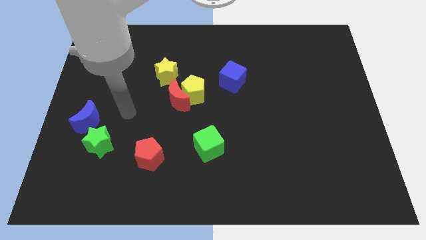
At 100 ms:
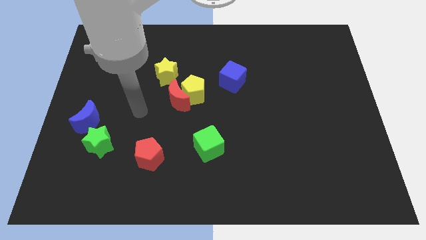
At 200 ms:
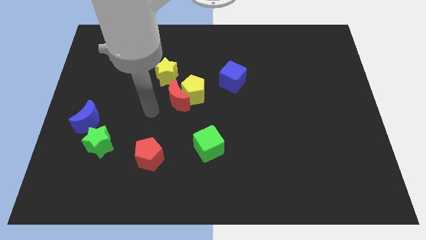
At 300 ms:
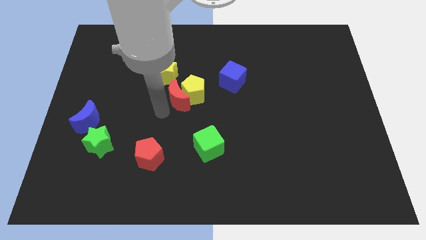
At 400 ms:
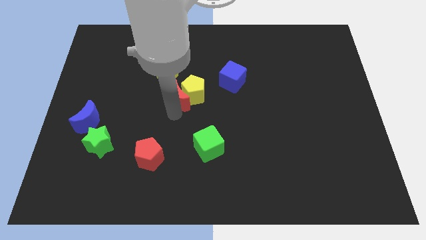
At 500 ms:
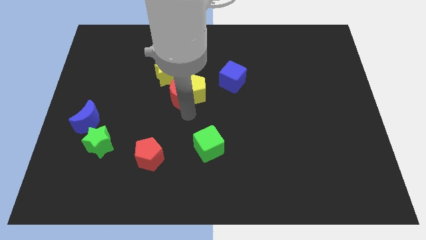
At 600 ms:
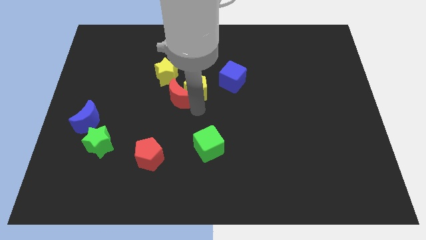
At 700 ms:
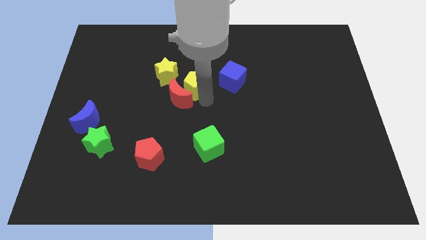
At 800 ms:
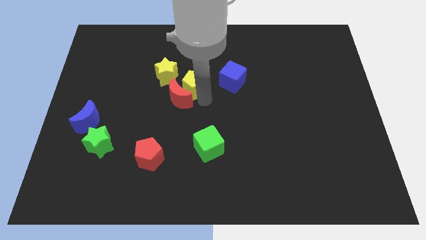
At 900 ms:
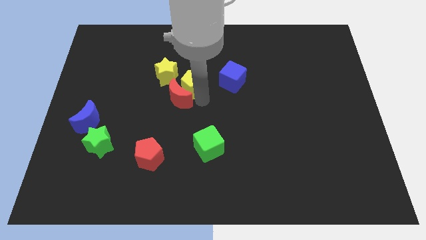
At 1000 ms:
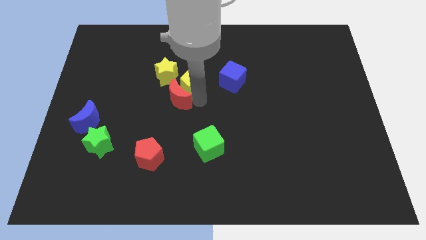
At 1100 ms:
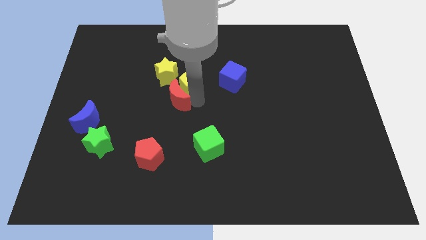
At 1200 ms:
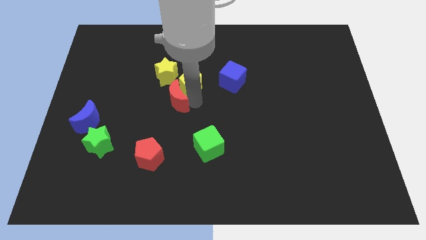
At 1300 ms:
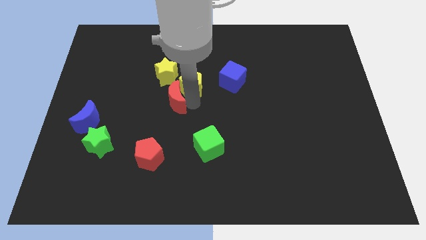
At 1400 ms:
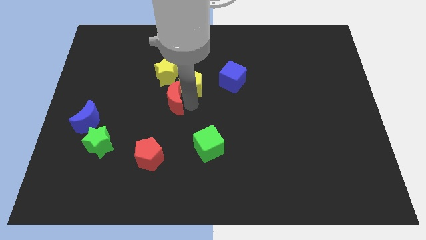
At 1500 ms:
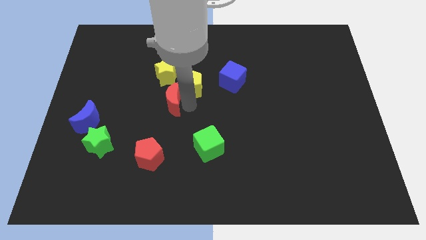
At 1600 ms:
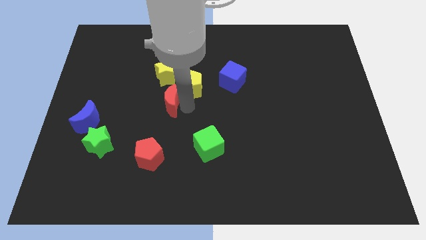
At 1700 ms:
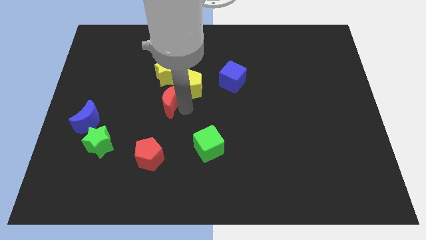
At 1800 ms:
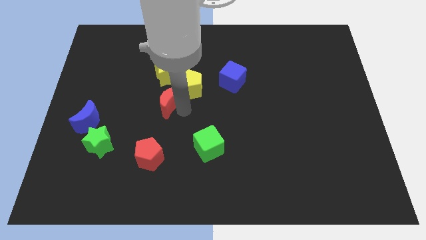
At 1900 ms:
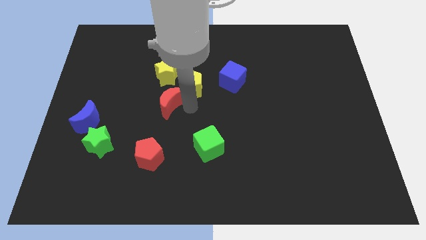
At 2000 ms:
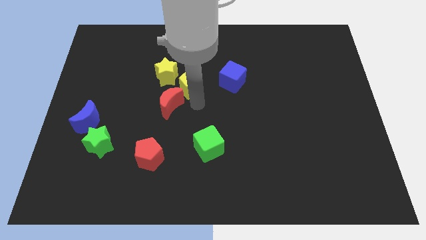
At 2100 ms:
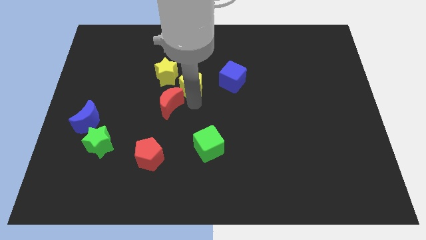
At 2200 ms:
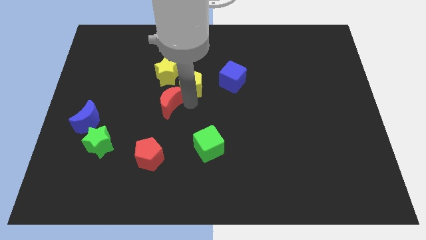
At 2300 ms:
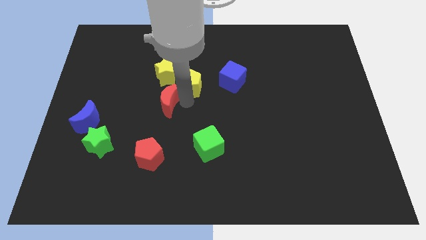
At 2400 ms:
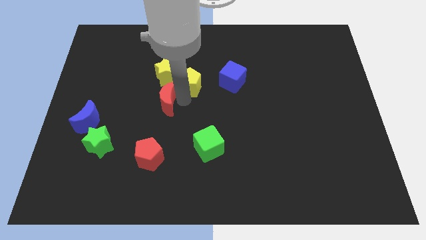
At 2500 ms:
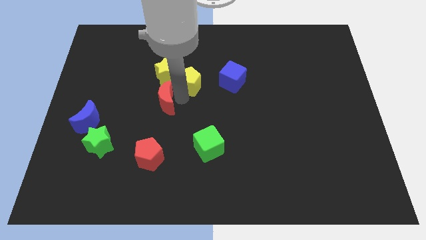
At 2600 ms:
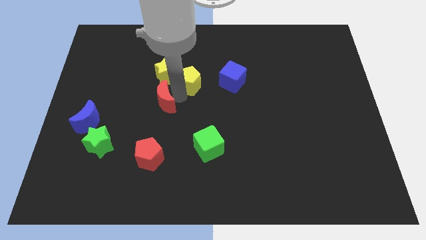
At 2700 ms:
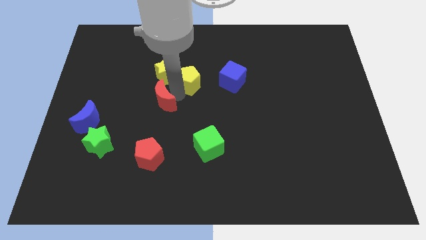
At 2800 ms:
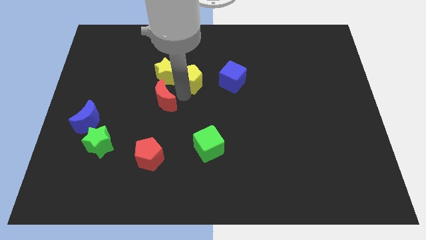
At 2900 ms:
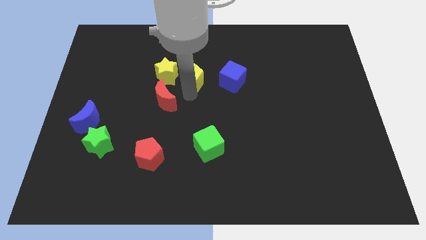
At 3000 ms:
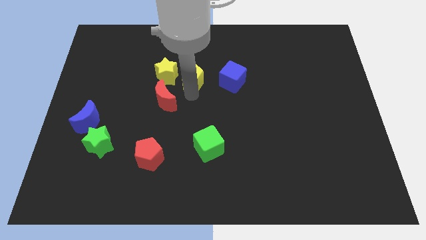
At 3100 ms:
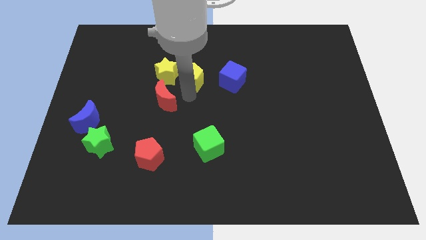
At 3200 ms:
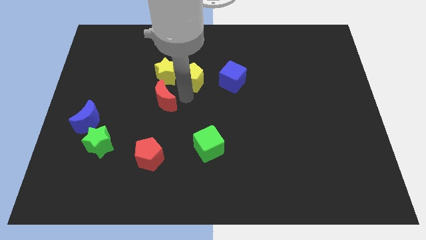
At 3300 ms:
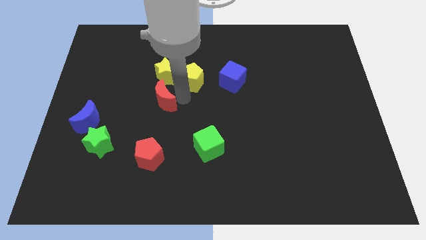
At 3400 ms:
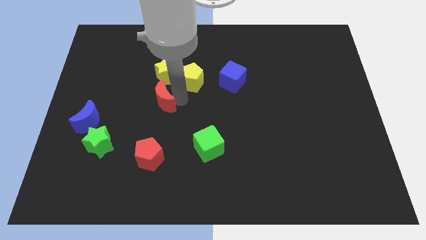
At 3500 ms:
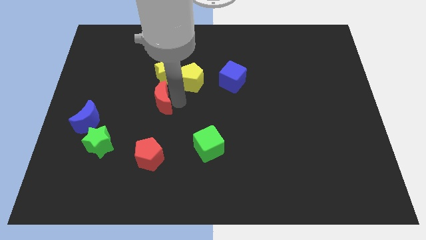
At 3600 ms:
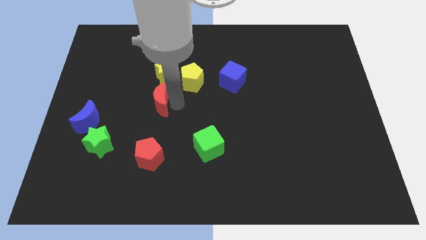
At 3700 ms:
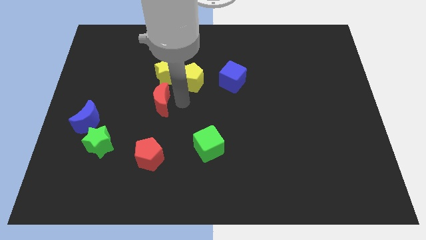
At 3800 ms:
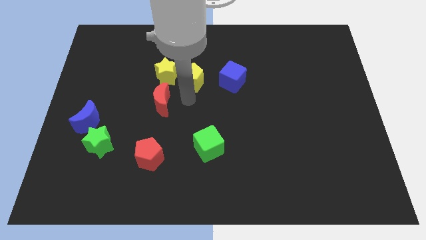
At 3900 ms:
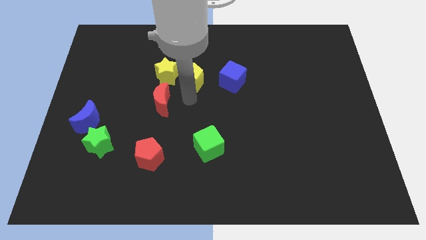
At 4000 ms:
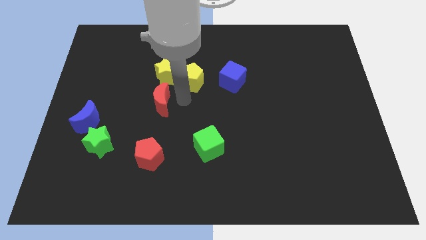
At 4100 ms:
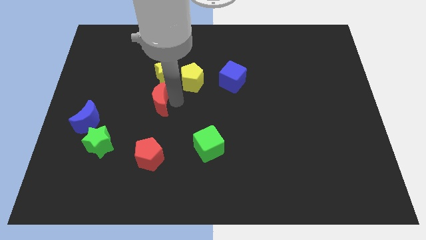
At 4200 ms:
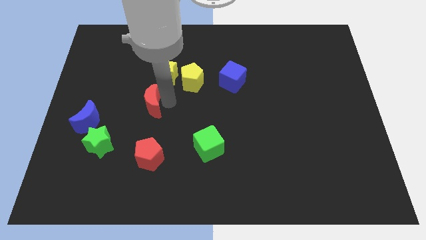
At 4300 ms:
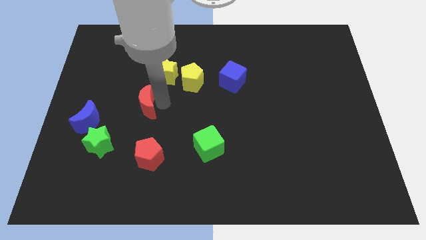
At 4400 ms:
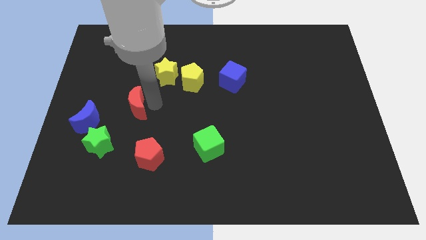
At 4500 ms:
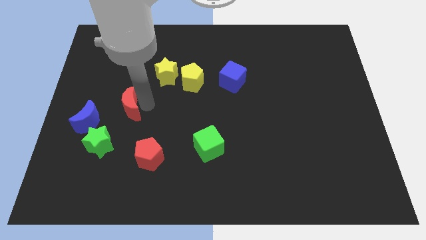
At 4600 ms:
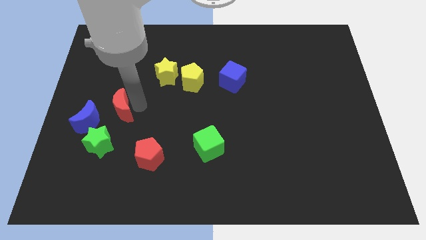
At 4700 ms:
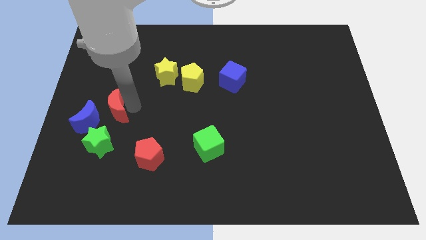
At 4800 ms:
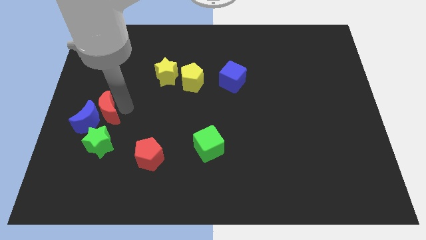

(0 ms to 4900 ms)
slide the red moon towards the blue moon

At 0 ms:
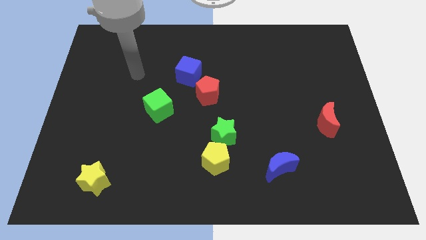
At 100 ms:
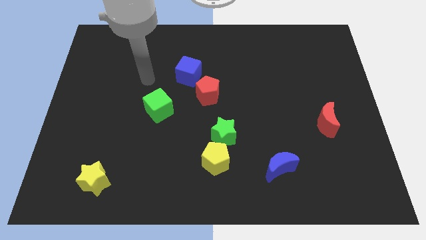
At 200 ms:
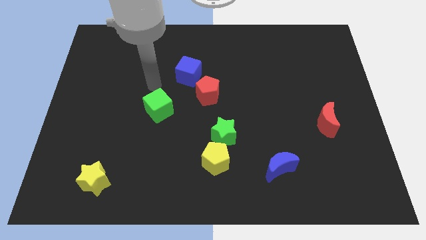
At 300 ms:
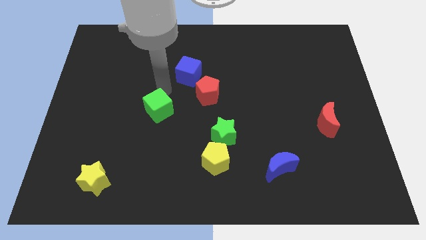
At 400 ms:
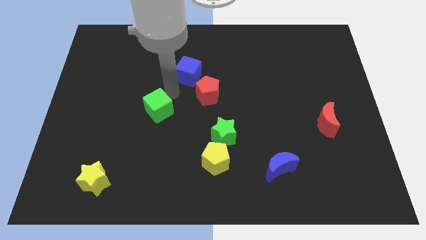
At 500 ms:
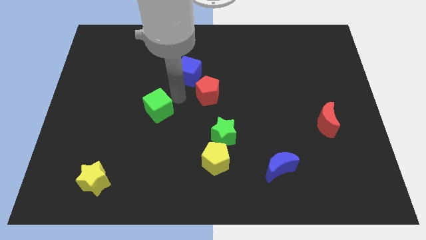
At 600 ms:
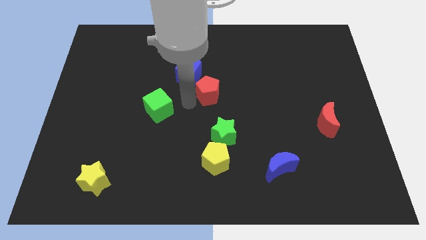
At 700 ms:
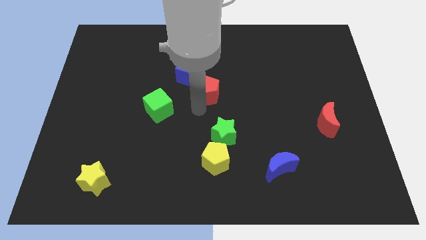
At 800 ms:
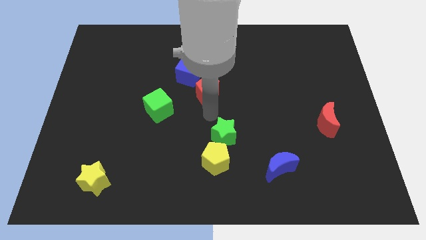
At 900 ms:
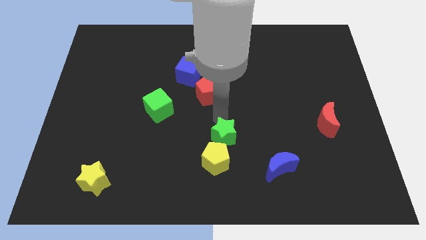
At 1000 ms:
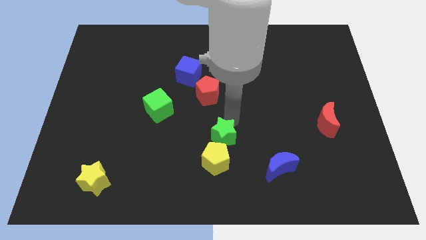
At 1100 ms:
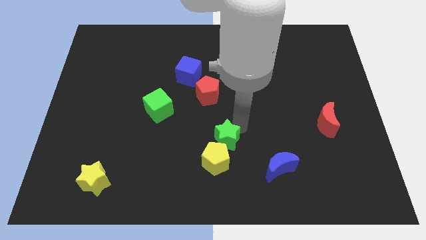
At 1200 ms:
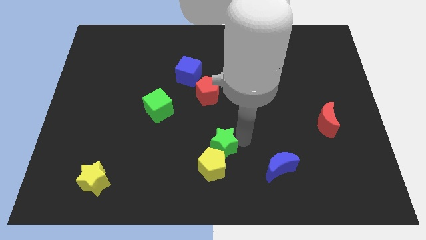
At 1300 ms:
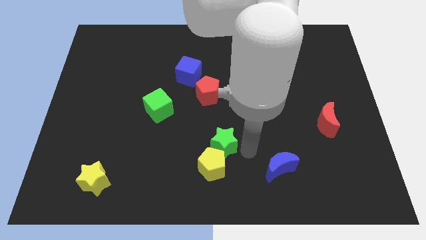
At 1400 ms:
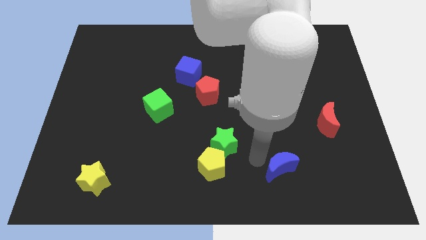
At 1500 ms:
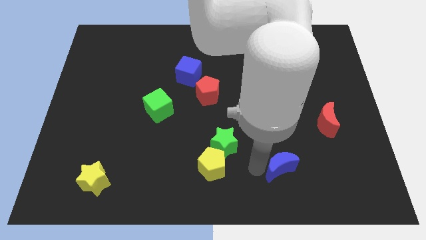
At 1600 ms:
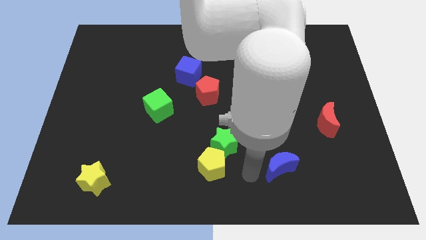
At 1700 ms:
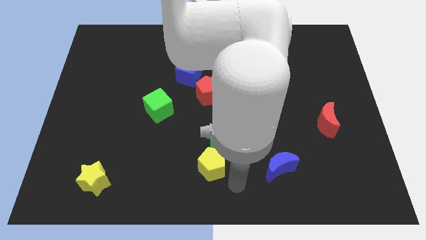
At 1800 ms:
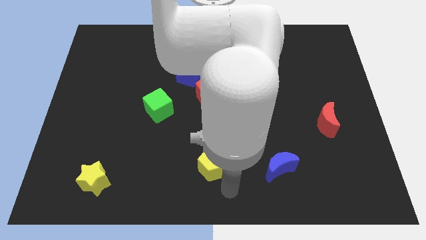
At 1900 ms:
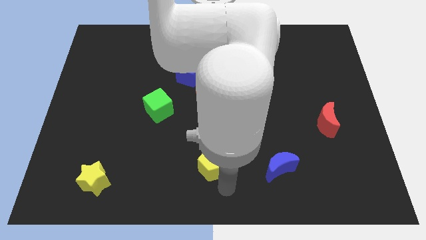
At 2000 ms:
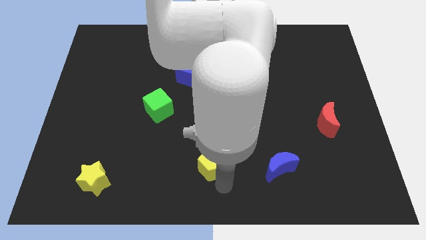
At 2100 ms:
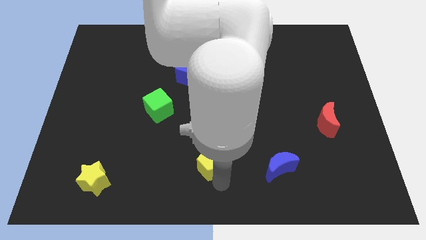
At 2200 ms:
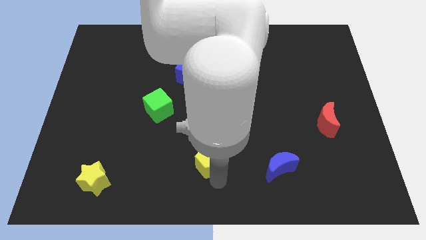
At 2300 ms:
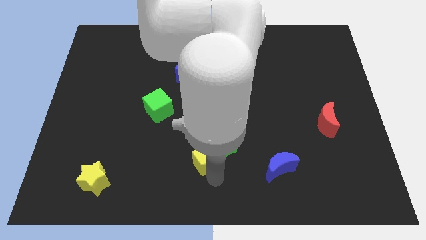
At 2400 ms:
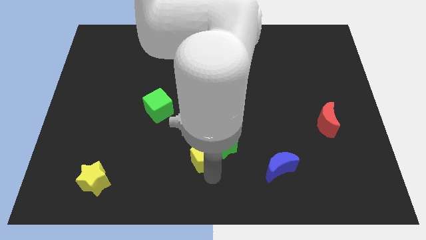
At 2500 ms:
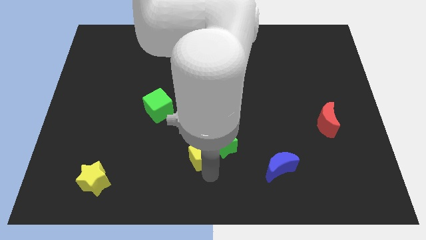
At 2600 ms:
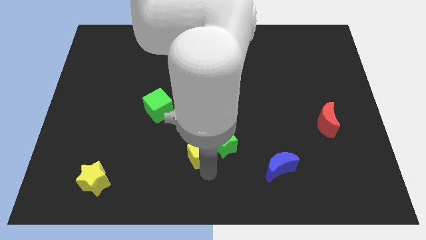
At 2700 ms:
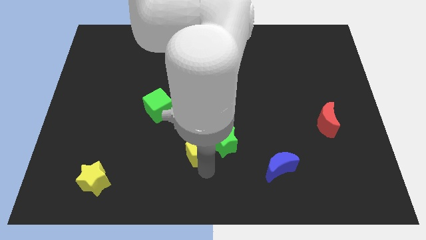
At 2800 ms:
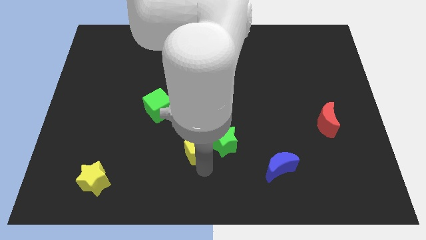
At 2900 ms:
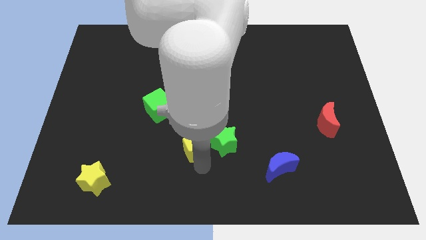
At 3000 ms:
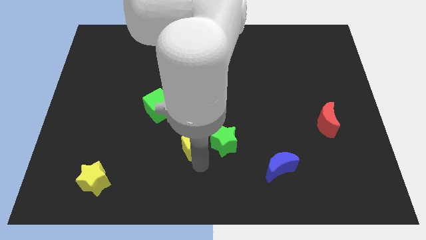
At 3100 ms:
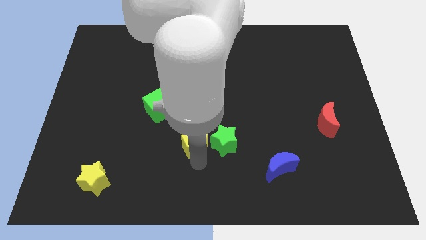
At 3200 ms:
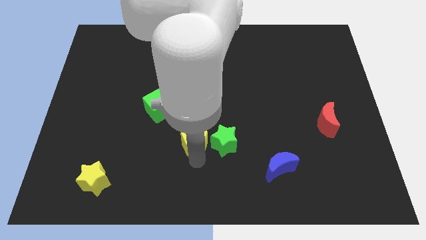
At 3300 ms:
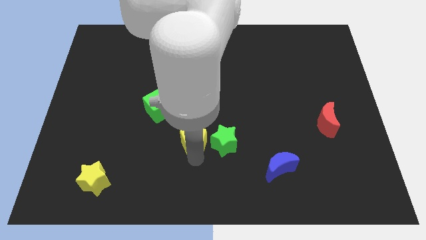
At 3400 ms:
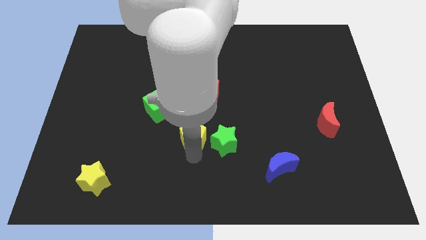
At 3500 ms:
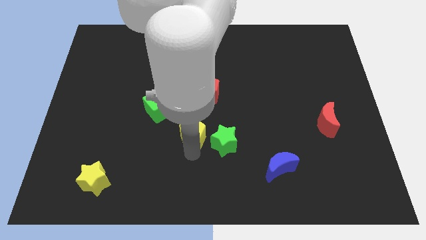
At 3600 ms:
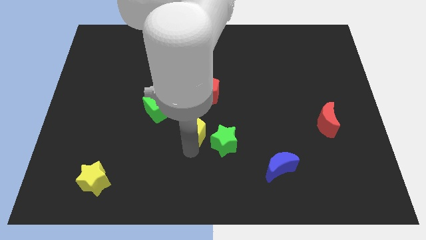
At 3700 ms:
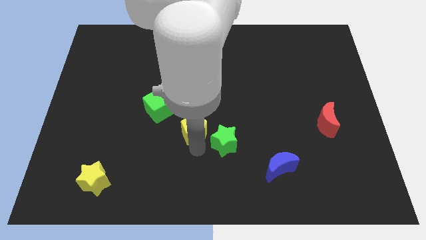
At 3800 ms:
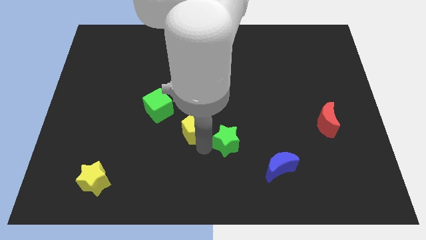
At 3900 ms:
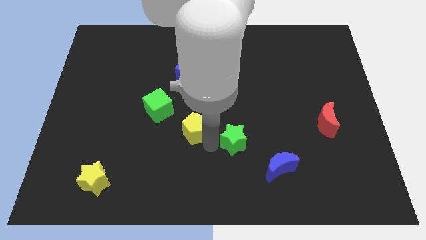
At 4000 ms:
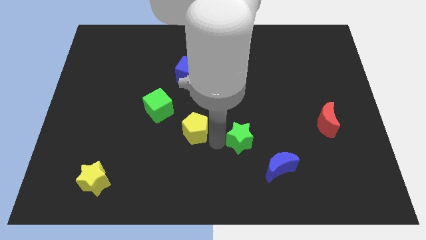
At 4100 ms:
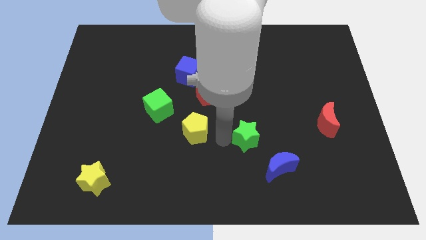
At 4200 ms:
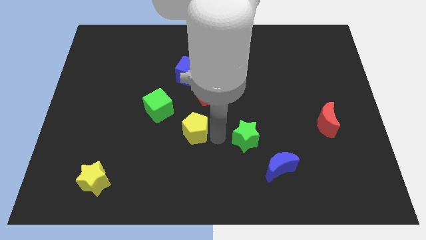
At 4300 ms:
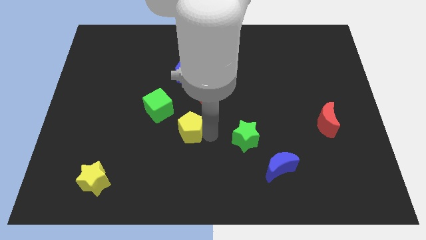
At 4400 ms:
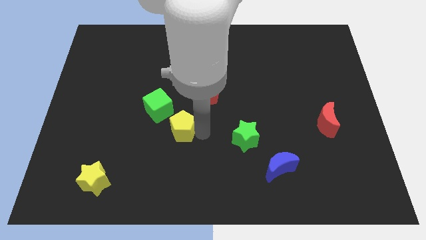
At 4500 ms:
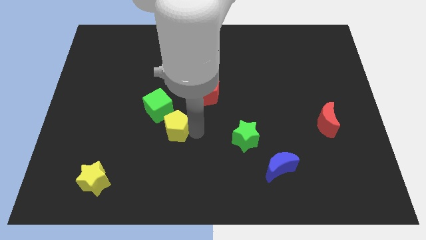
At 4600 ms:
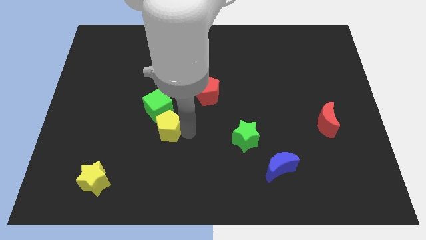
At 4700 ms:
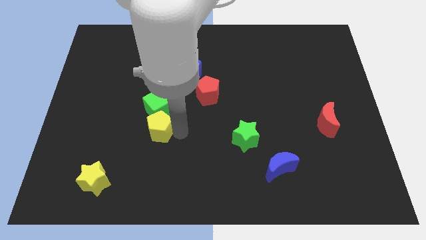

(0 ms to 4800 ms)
slide the yellow pentagon towards the green cube
